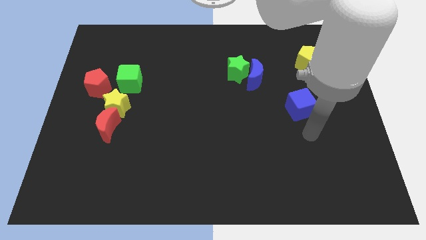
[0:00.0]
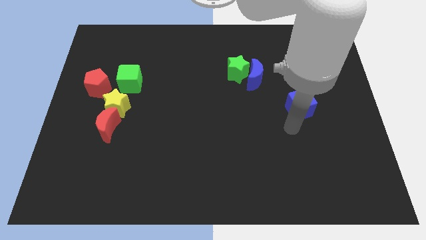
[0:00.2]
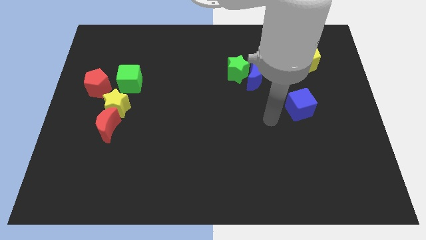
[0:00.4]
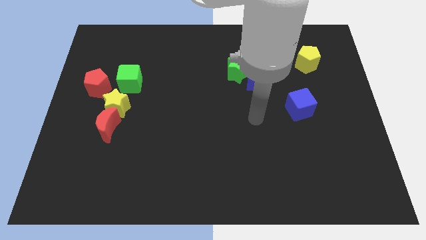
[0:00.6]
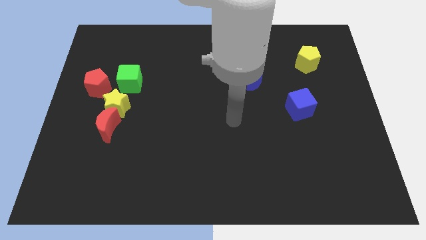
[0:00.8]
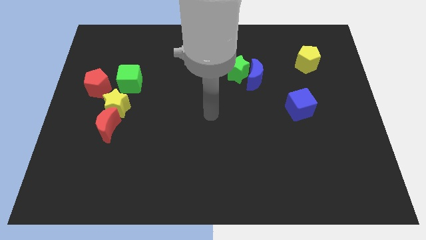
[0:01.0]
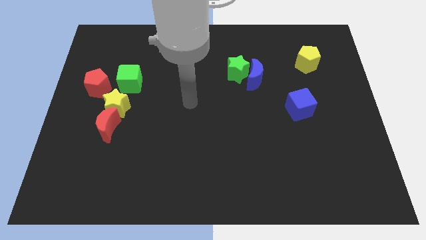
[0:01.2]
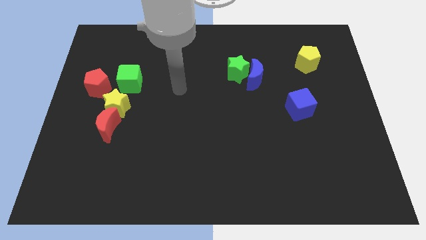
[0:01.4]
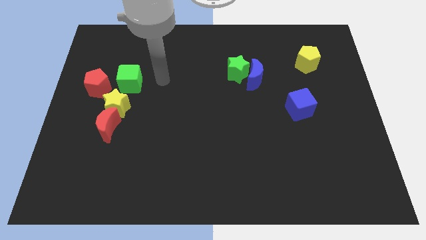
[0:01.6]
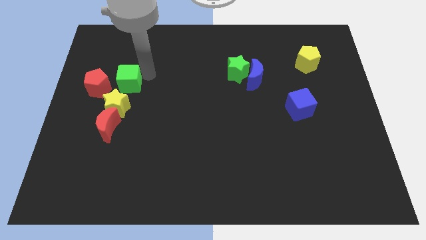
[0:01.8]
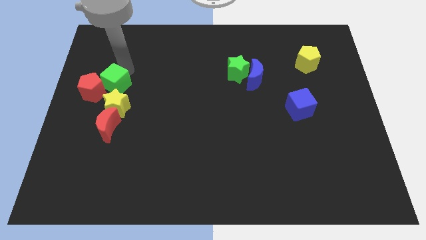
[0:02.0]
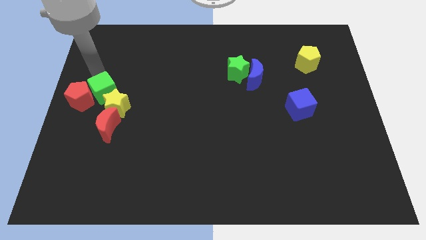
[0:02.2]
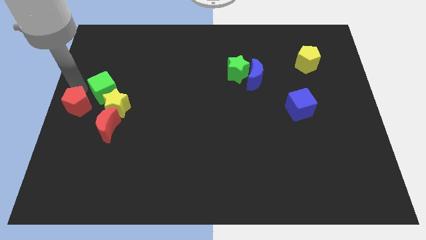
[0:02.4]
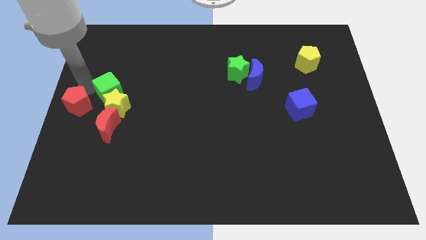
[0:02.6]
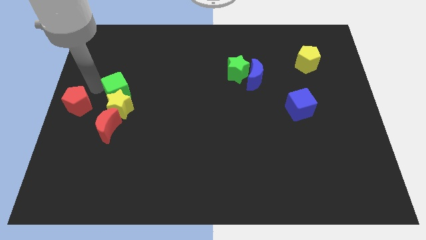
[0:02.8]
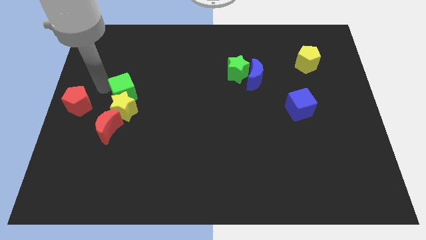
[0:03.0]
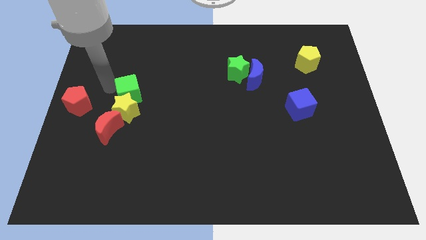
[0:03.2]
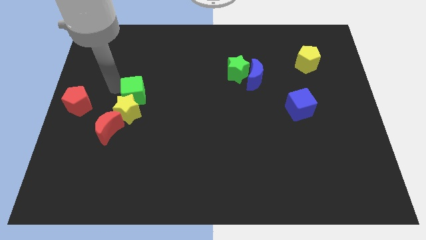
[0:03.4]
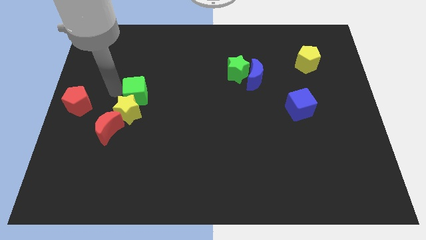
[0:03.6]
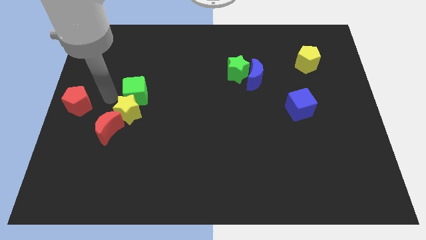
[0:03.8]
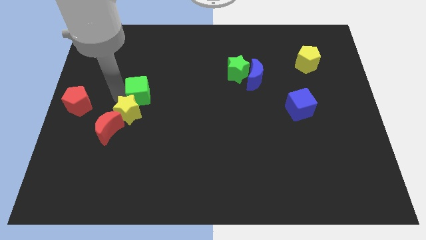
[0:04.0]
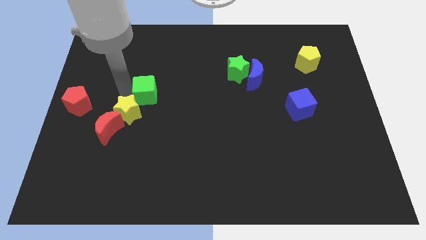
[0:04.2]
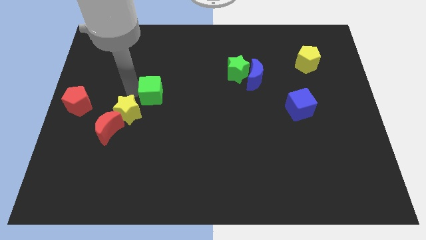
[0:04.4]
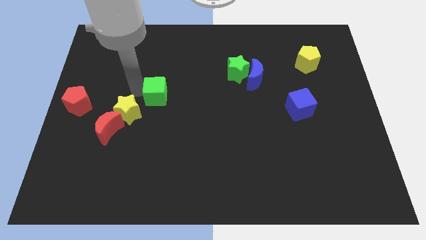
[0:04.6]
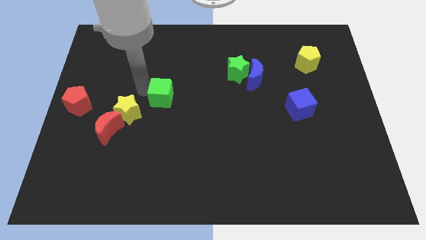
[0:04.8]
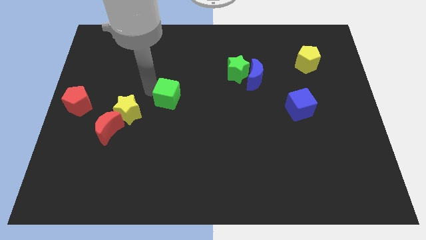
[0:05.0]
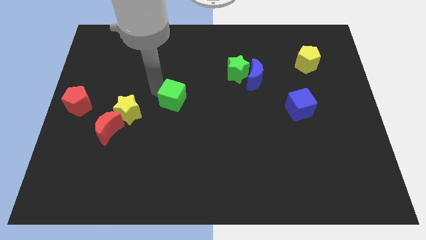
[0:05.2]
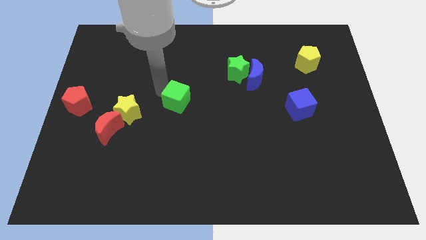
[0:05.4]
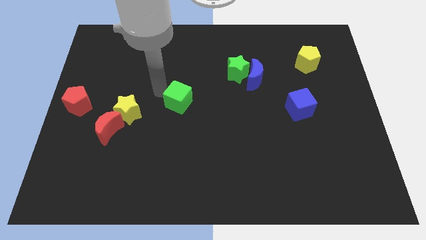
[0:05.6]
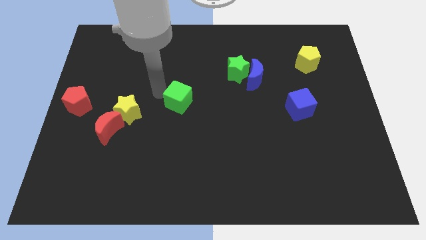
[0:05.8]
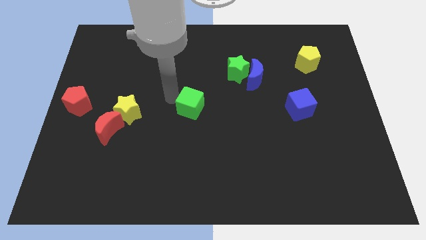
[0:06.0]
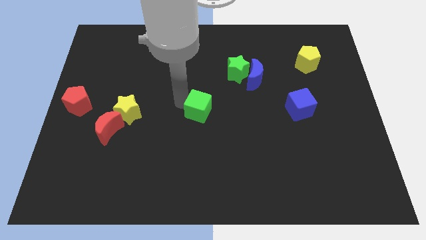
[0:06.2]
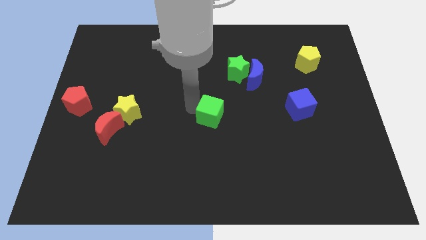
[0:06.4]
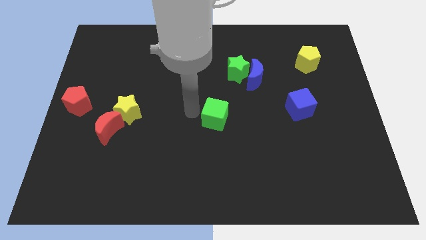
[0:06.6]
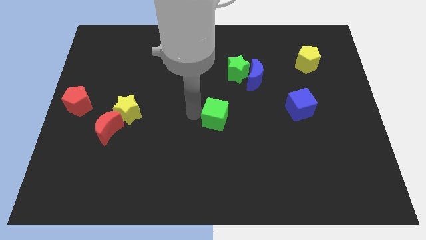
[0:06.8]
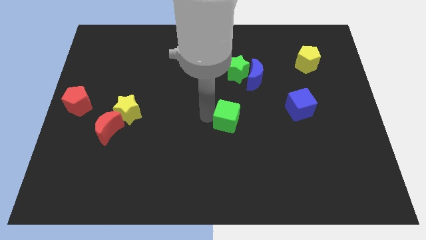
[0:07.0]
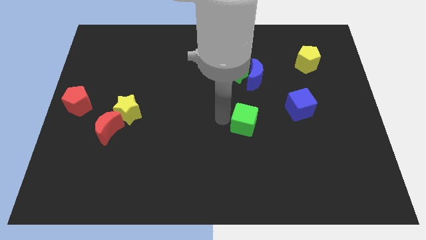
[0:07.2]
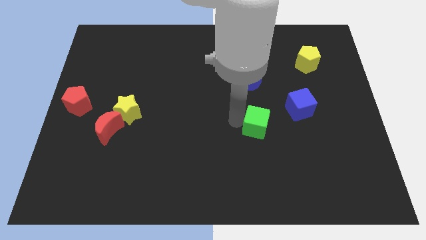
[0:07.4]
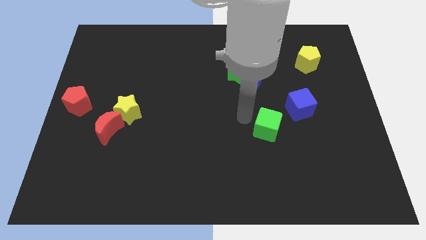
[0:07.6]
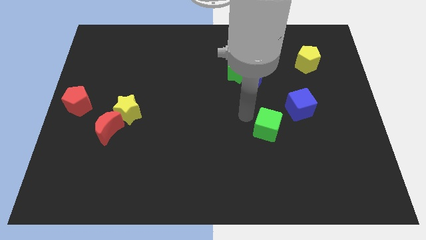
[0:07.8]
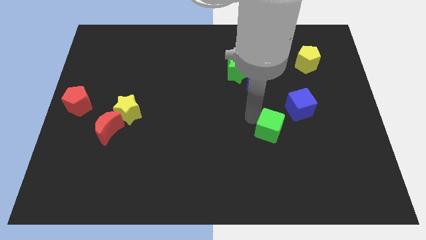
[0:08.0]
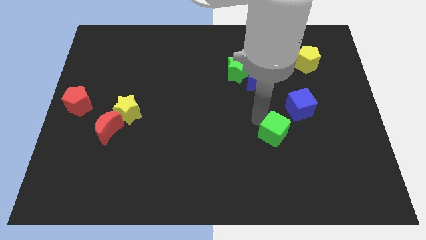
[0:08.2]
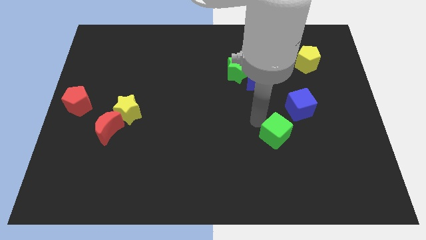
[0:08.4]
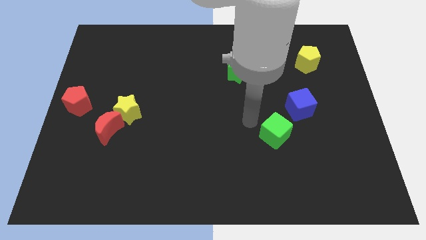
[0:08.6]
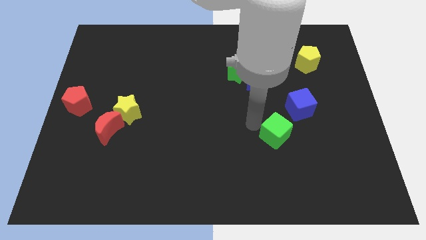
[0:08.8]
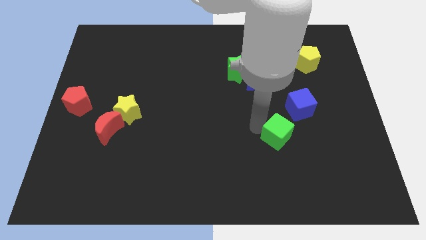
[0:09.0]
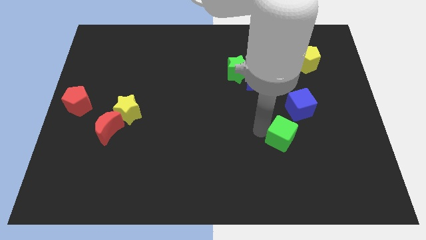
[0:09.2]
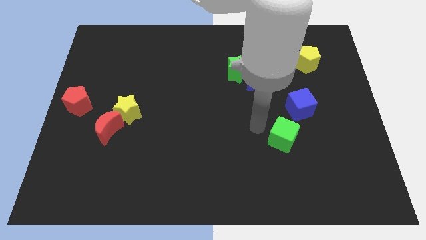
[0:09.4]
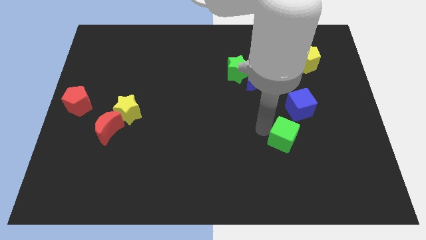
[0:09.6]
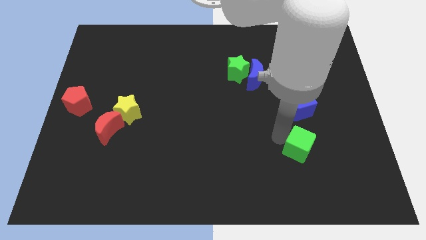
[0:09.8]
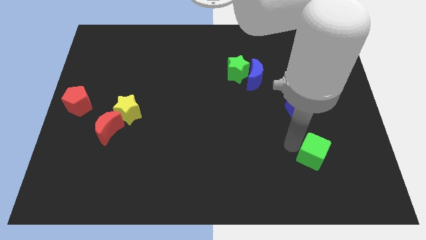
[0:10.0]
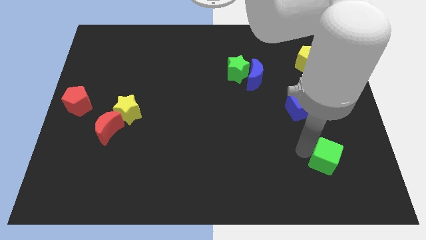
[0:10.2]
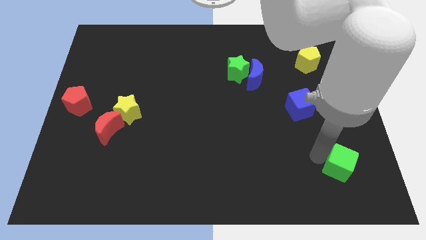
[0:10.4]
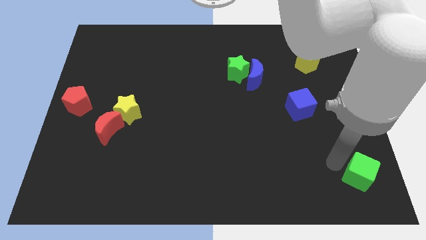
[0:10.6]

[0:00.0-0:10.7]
push the green cube to the bottom right corner

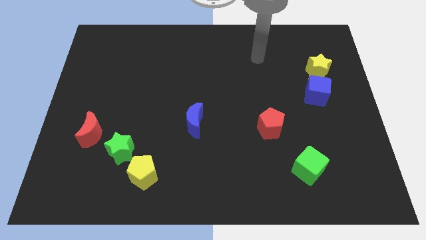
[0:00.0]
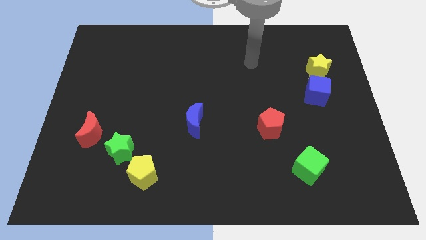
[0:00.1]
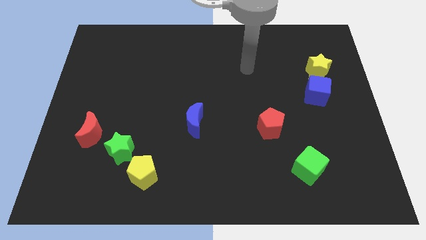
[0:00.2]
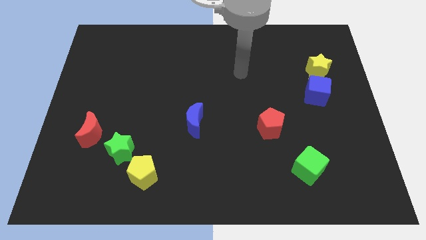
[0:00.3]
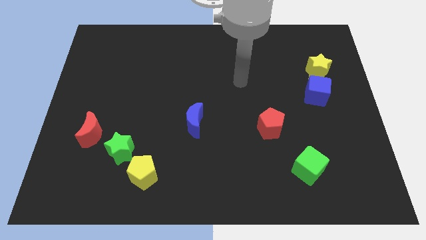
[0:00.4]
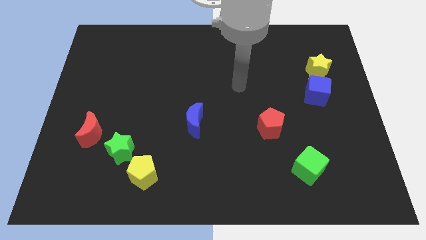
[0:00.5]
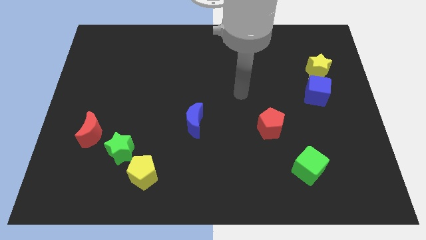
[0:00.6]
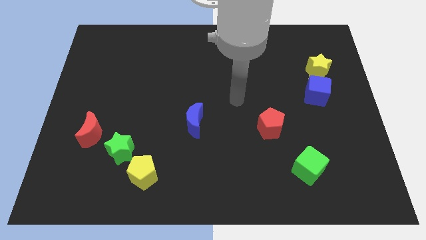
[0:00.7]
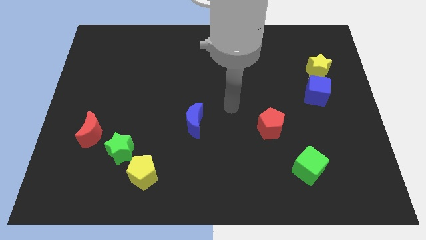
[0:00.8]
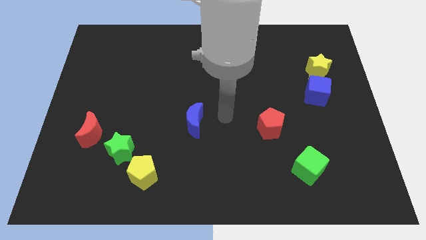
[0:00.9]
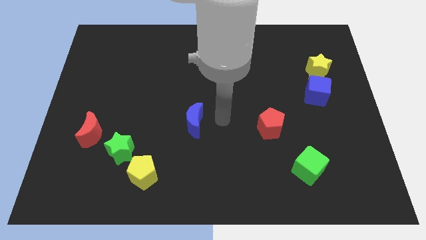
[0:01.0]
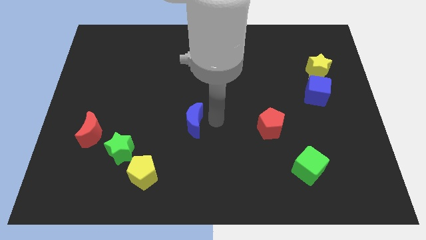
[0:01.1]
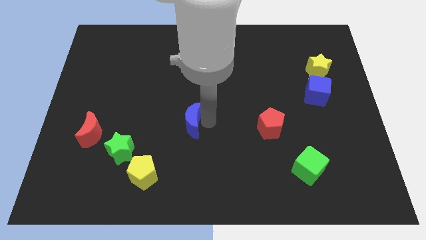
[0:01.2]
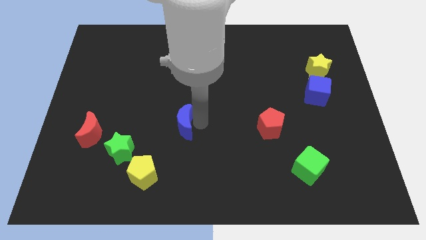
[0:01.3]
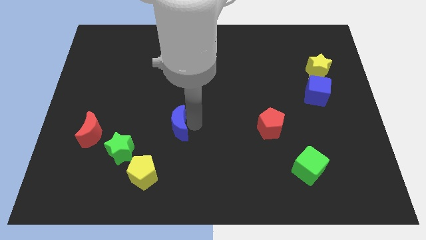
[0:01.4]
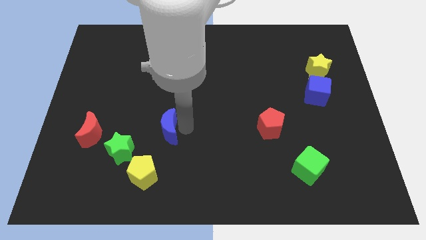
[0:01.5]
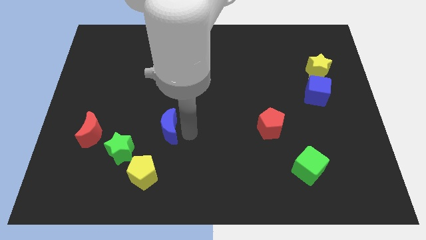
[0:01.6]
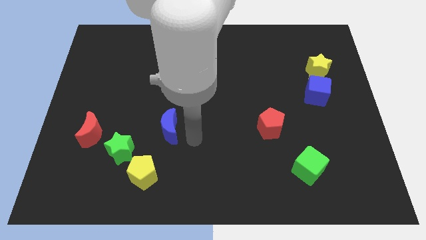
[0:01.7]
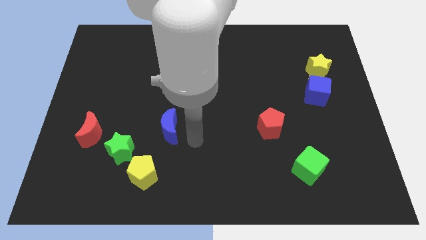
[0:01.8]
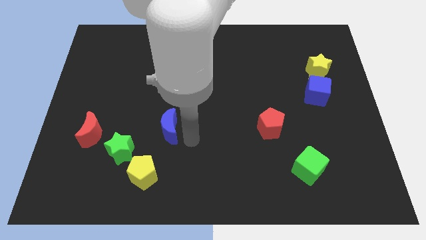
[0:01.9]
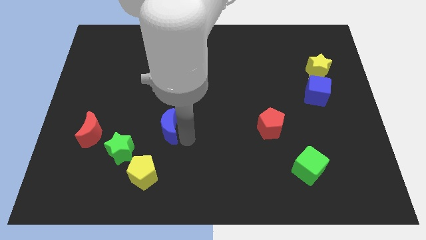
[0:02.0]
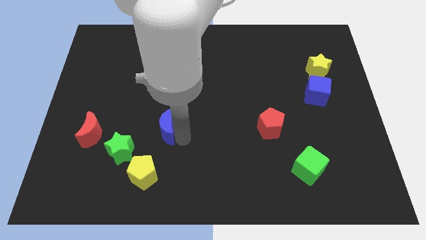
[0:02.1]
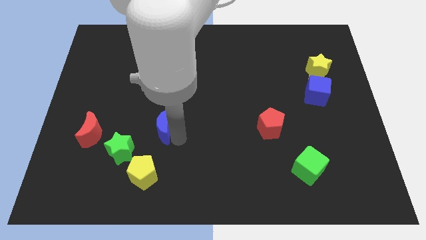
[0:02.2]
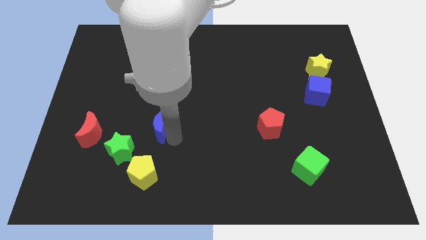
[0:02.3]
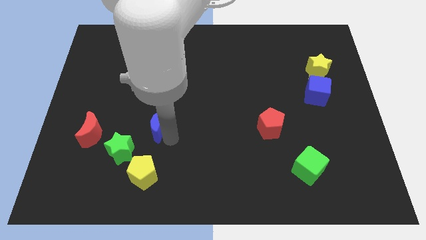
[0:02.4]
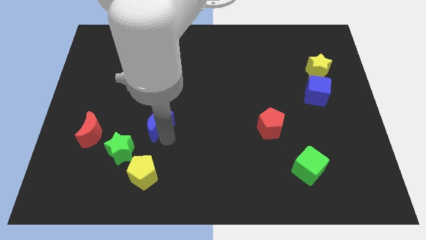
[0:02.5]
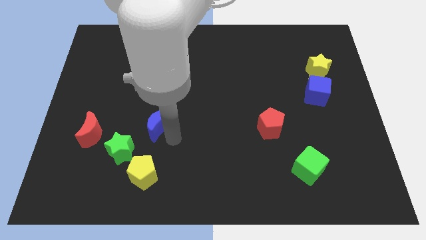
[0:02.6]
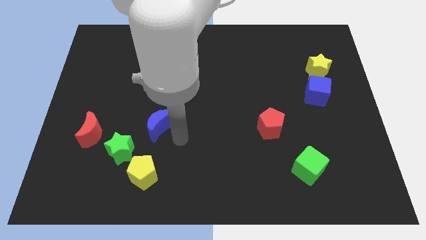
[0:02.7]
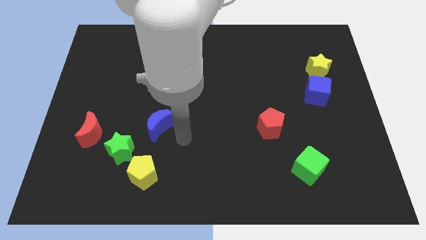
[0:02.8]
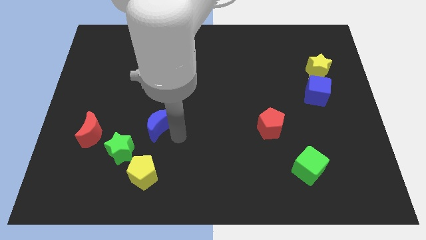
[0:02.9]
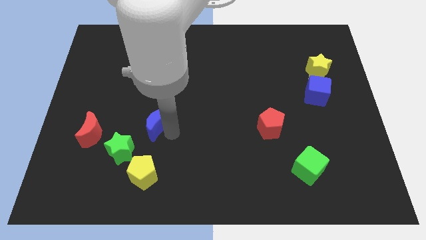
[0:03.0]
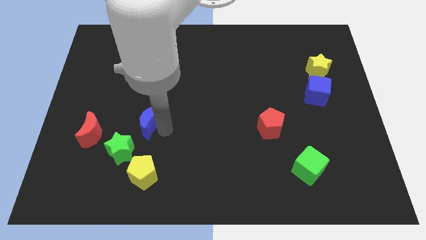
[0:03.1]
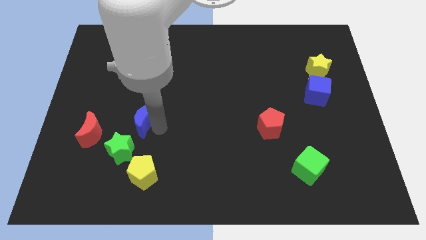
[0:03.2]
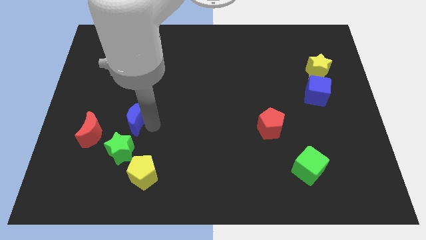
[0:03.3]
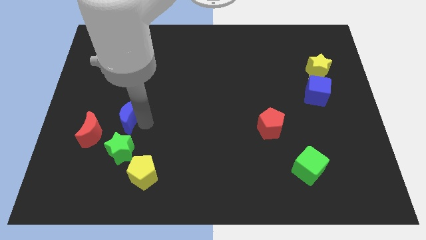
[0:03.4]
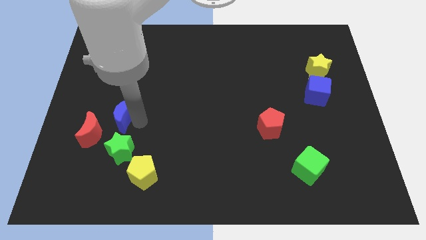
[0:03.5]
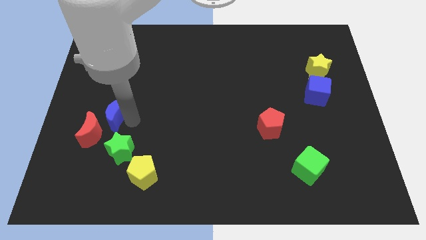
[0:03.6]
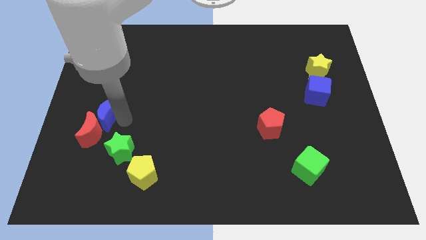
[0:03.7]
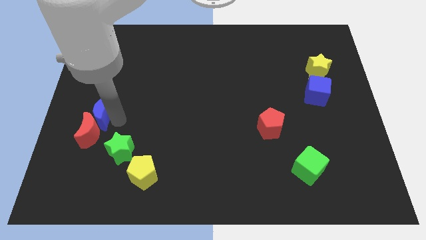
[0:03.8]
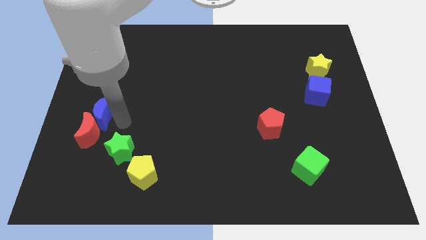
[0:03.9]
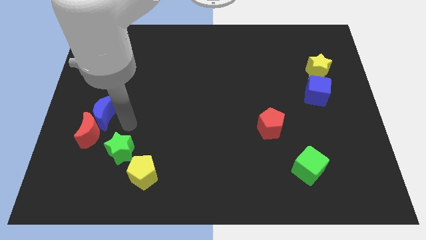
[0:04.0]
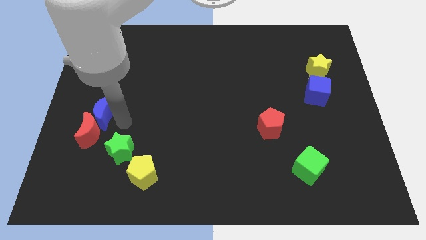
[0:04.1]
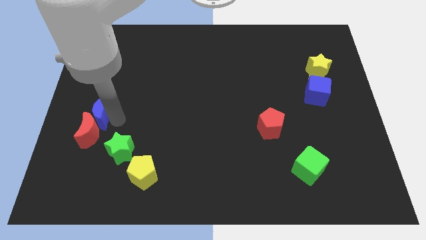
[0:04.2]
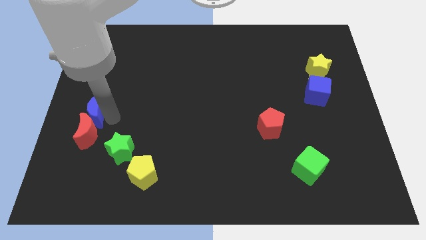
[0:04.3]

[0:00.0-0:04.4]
slide the blue moon to the center left
